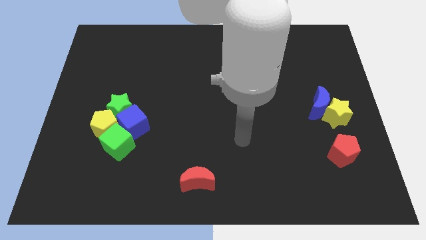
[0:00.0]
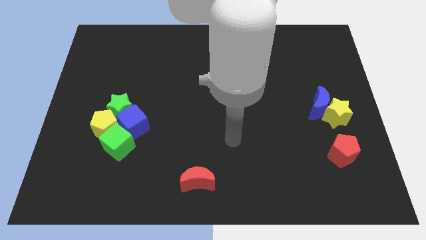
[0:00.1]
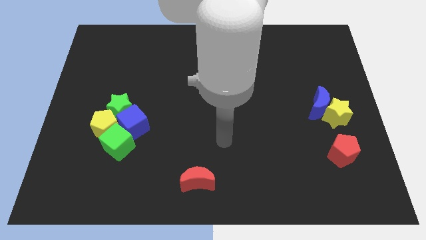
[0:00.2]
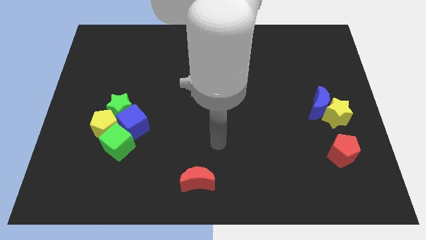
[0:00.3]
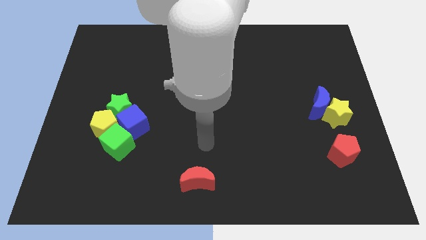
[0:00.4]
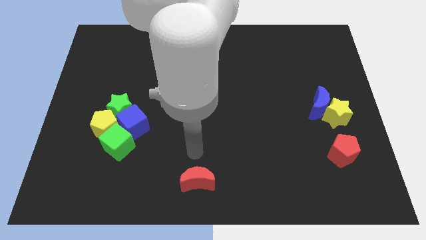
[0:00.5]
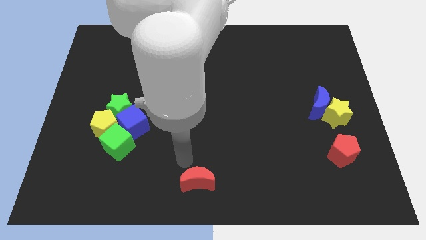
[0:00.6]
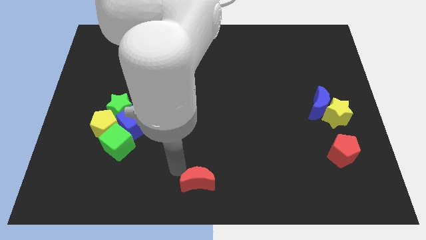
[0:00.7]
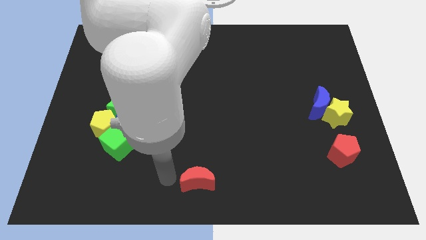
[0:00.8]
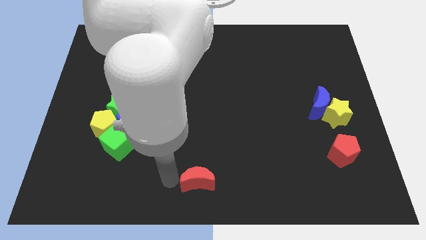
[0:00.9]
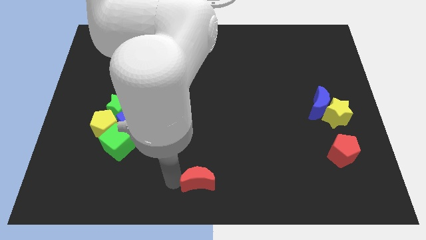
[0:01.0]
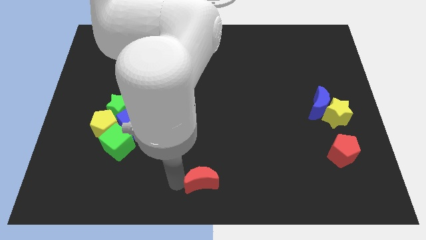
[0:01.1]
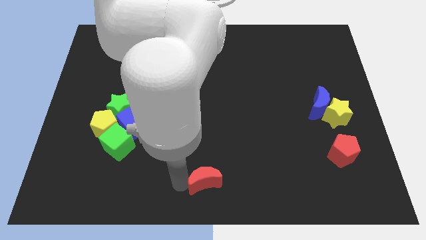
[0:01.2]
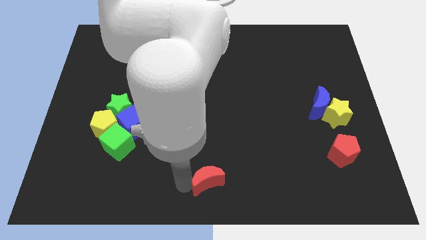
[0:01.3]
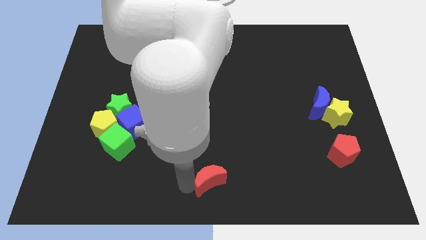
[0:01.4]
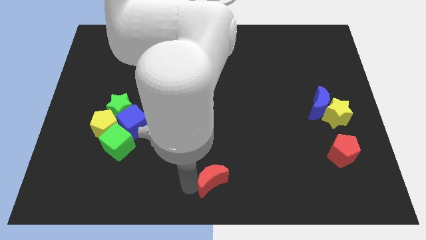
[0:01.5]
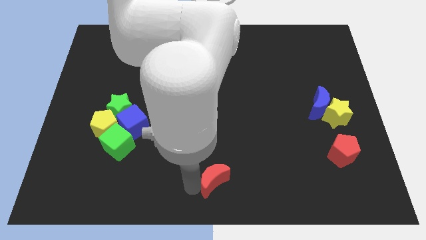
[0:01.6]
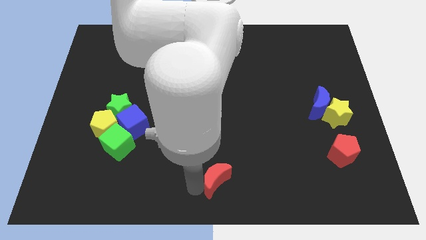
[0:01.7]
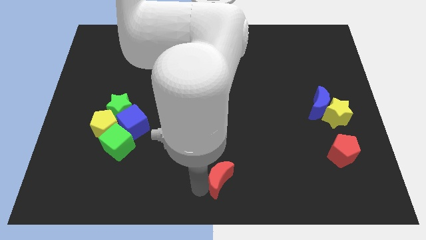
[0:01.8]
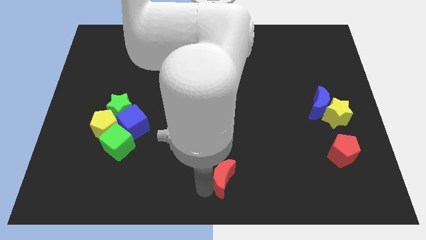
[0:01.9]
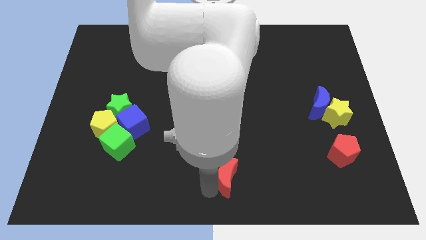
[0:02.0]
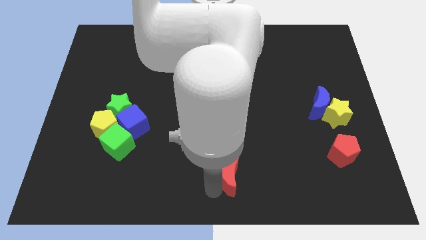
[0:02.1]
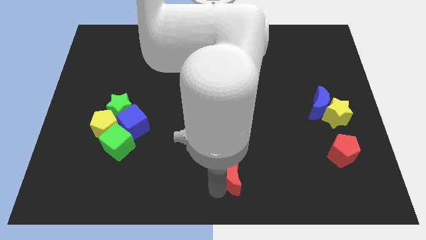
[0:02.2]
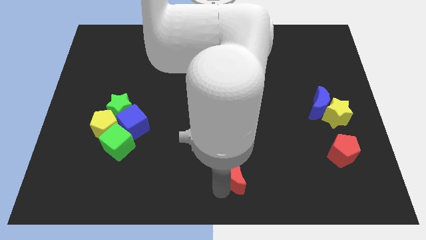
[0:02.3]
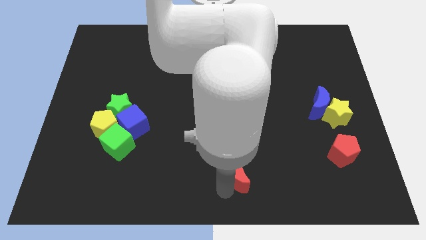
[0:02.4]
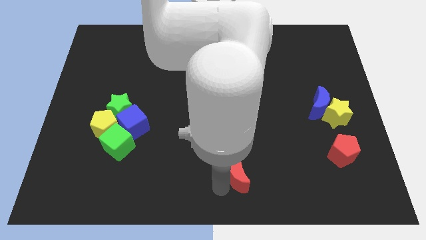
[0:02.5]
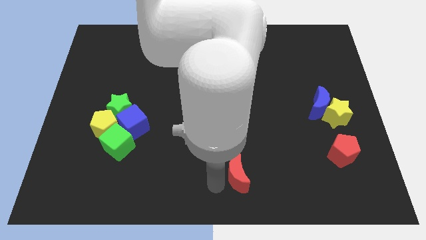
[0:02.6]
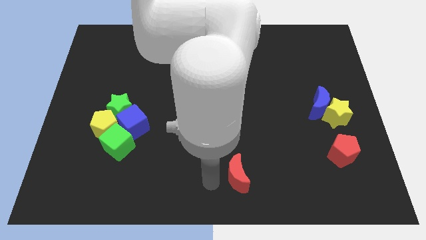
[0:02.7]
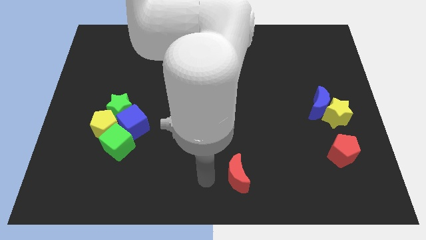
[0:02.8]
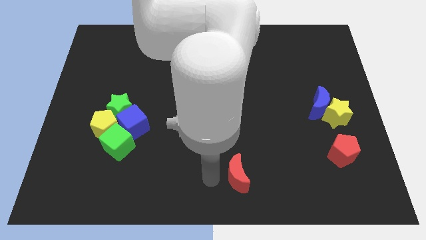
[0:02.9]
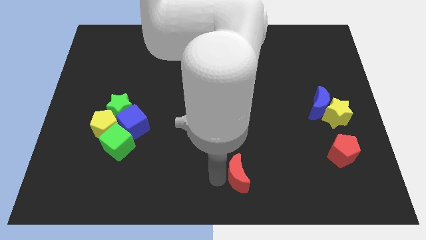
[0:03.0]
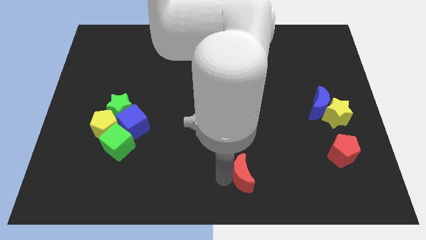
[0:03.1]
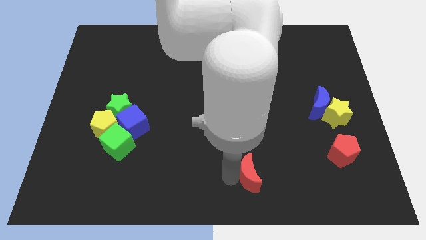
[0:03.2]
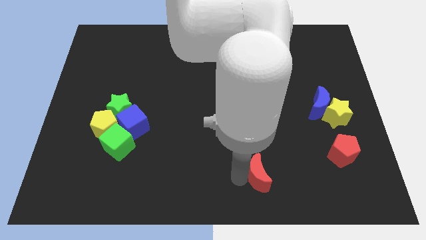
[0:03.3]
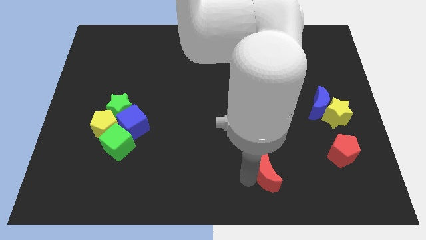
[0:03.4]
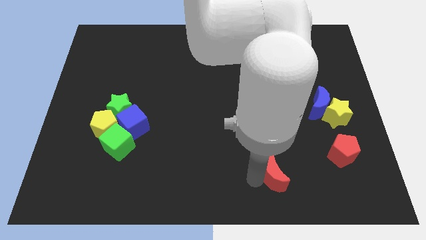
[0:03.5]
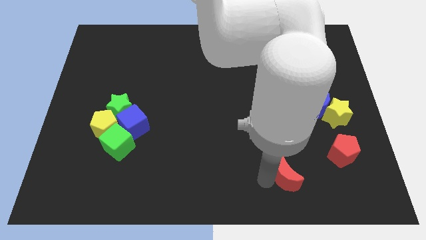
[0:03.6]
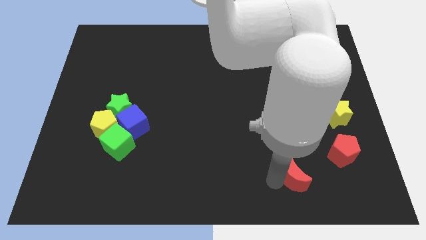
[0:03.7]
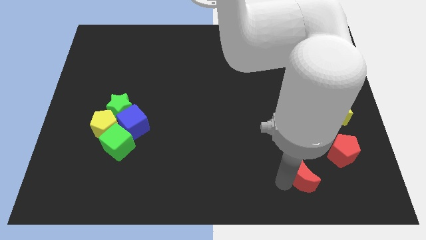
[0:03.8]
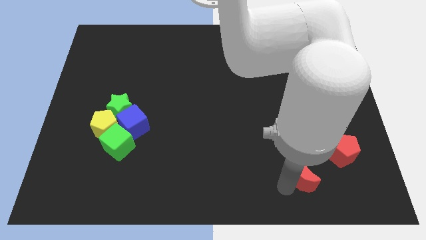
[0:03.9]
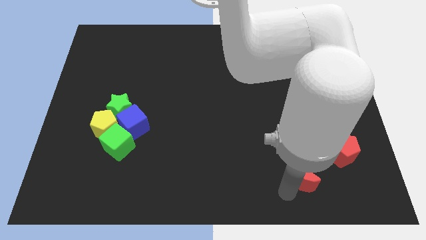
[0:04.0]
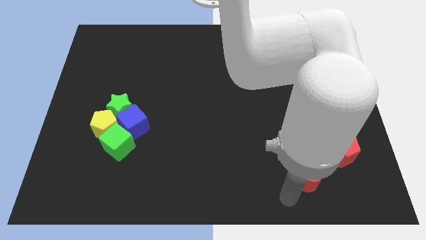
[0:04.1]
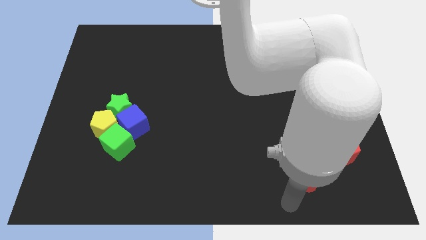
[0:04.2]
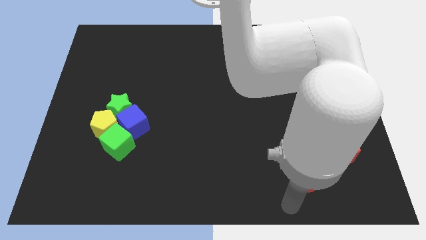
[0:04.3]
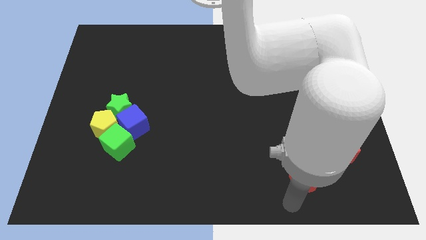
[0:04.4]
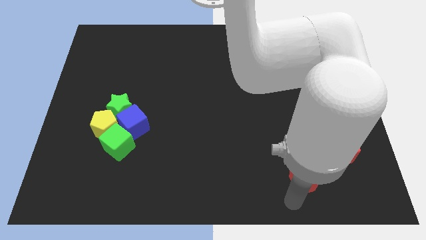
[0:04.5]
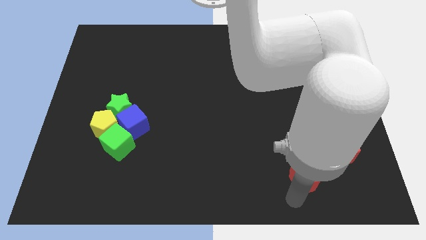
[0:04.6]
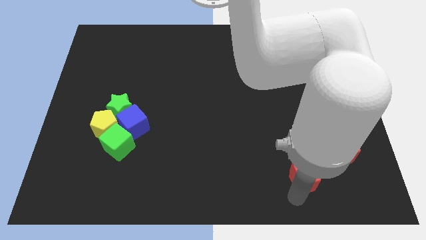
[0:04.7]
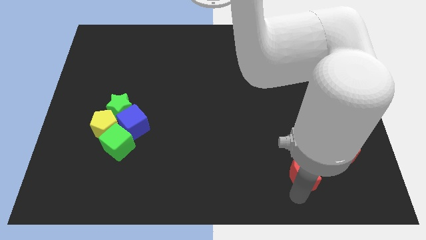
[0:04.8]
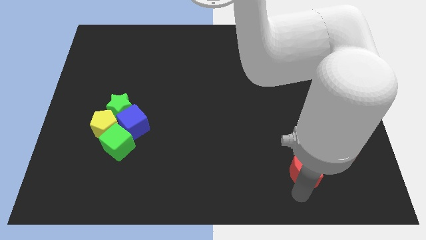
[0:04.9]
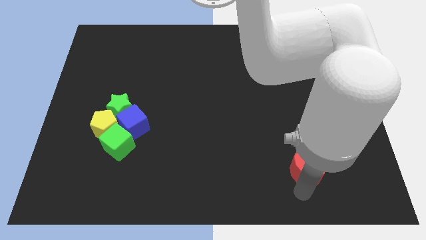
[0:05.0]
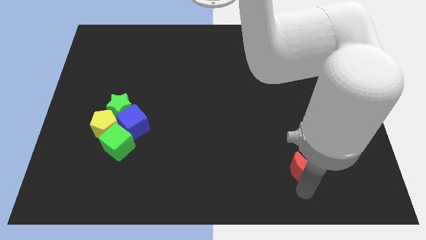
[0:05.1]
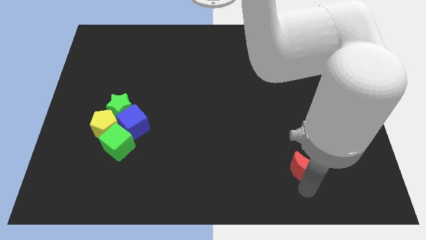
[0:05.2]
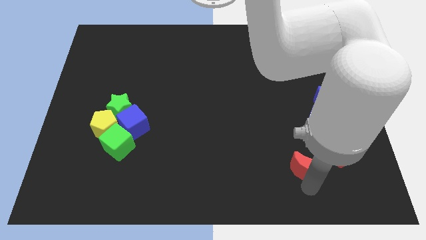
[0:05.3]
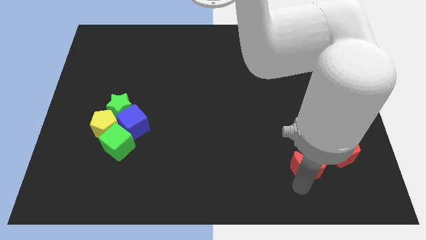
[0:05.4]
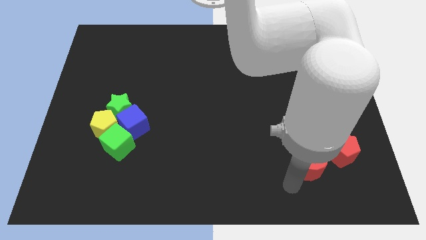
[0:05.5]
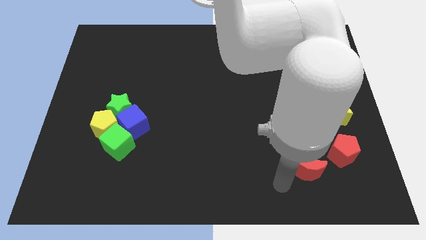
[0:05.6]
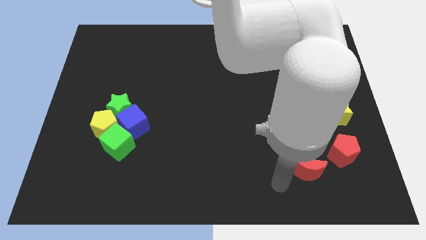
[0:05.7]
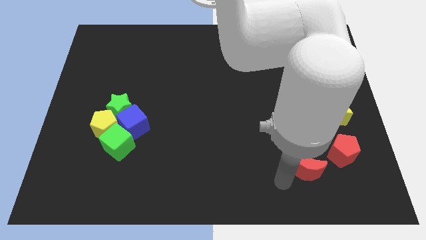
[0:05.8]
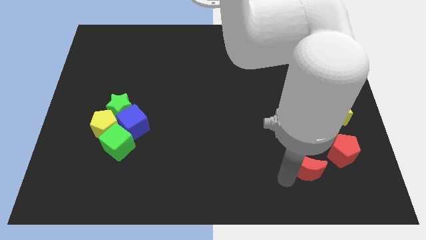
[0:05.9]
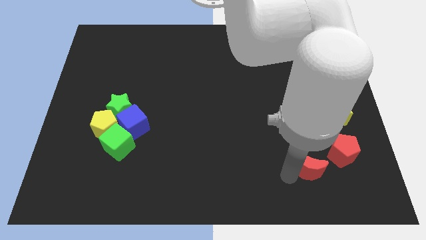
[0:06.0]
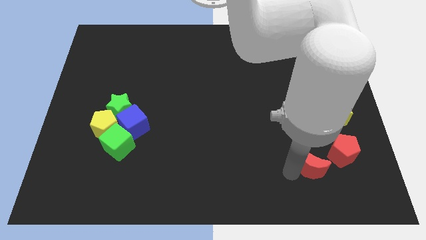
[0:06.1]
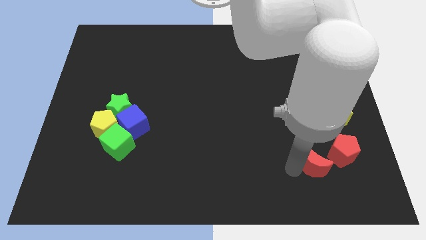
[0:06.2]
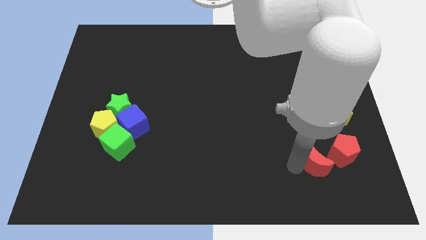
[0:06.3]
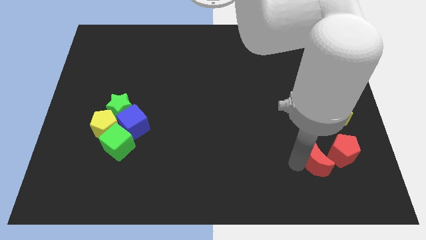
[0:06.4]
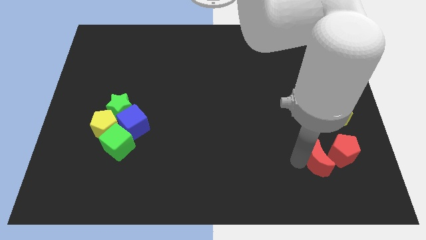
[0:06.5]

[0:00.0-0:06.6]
move the red moon close to the red pentagon

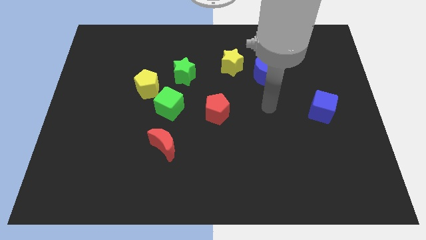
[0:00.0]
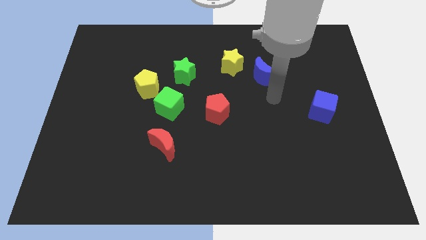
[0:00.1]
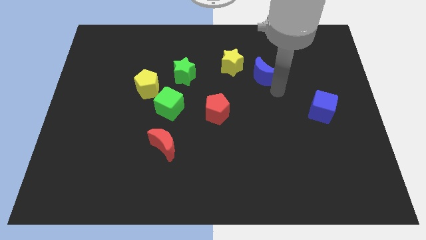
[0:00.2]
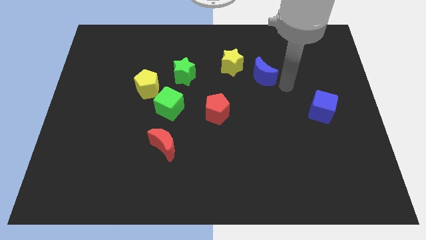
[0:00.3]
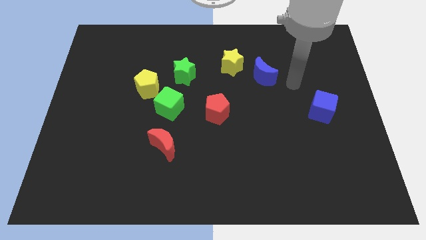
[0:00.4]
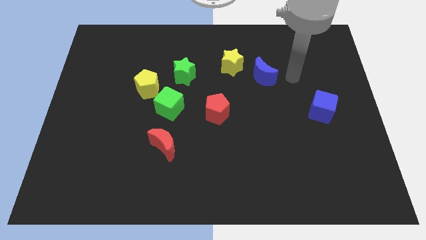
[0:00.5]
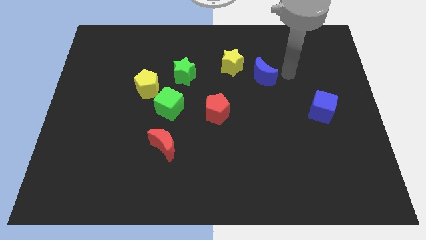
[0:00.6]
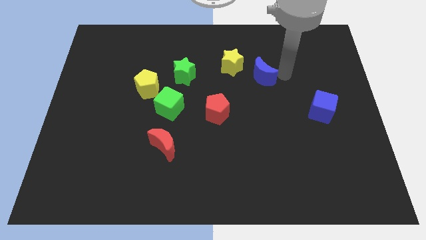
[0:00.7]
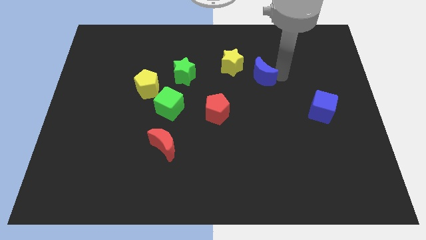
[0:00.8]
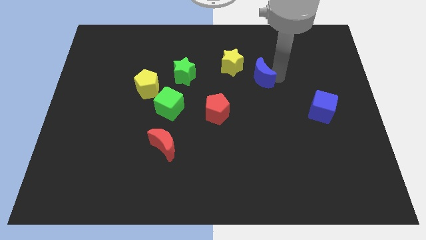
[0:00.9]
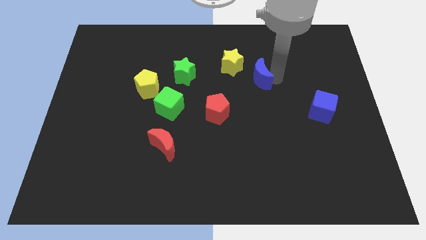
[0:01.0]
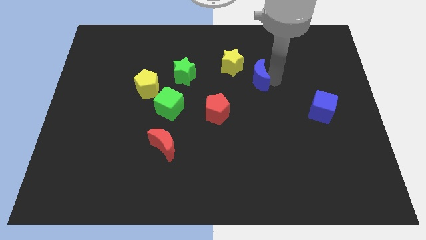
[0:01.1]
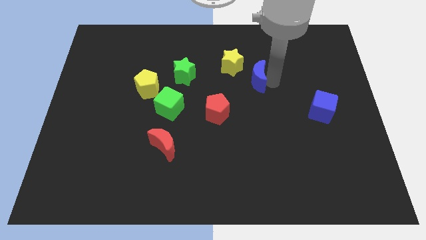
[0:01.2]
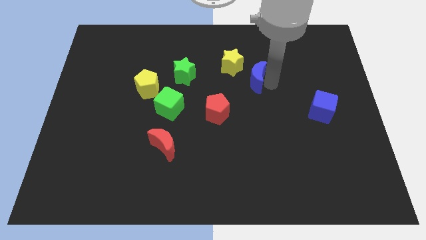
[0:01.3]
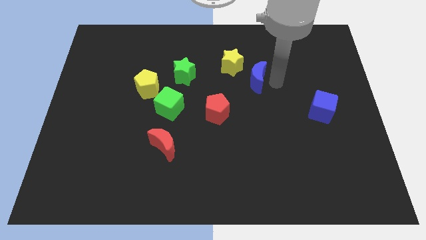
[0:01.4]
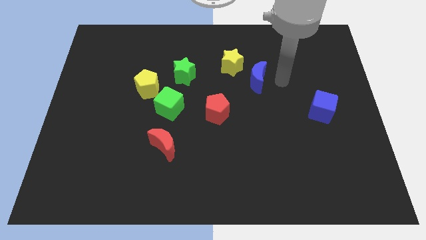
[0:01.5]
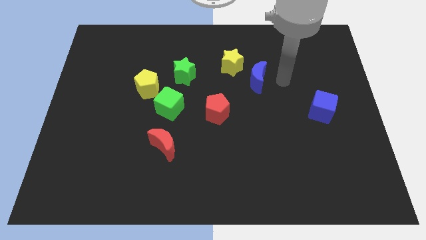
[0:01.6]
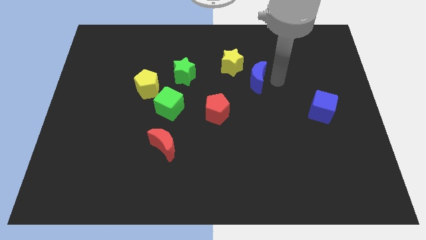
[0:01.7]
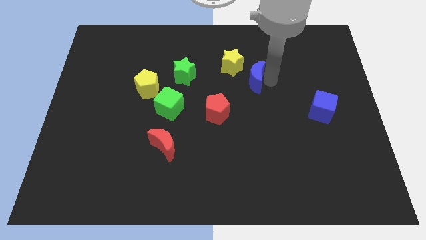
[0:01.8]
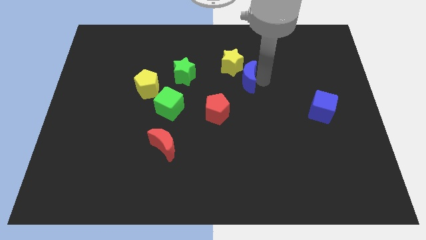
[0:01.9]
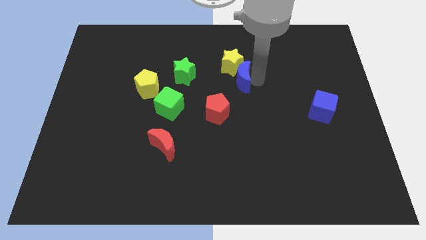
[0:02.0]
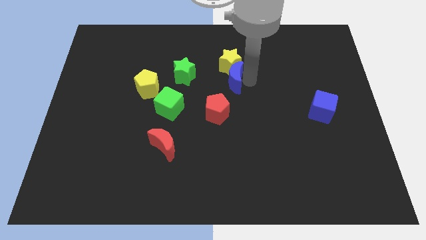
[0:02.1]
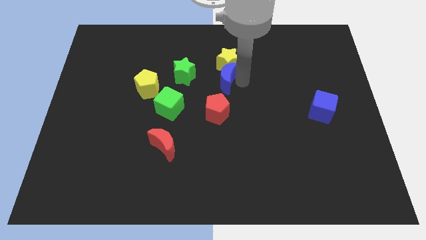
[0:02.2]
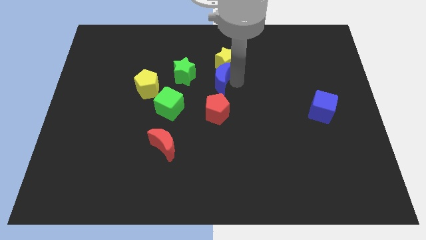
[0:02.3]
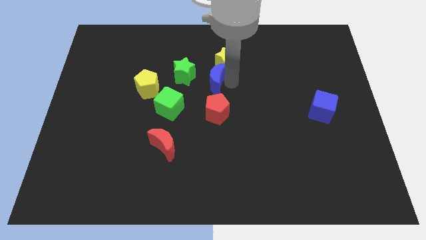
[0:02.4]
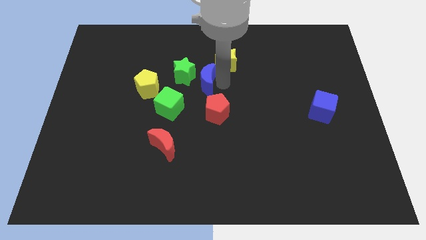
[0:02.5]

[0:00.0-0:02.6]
move the blue moon close to the green star
